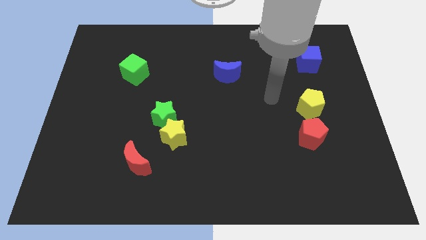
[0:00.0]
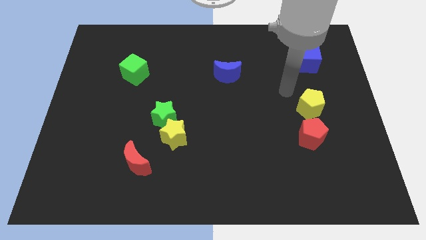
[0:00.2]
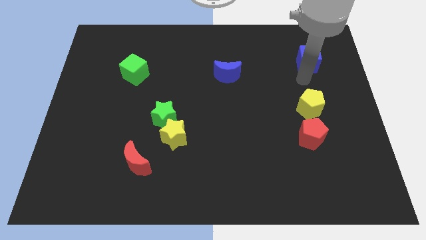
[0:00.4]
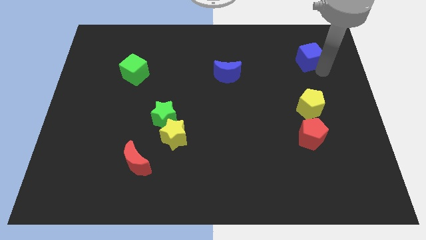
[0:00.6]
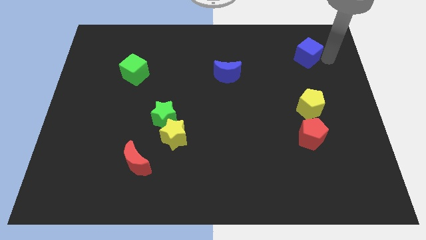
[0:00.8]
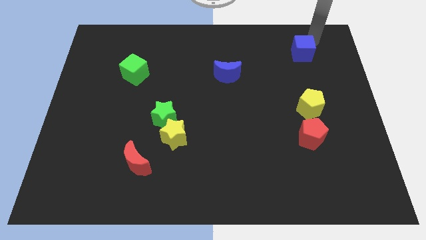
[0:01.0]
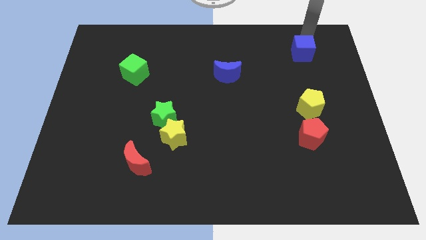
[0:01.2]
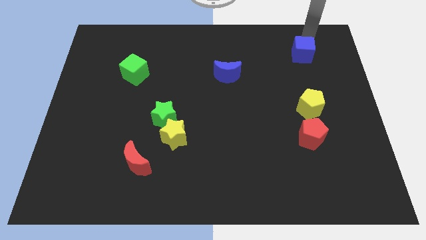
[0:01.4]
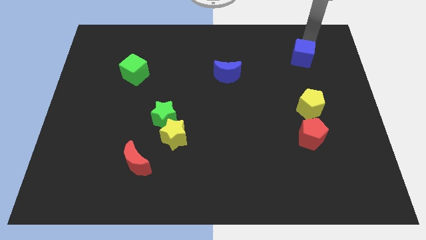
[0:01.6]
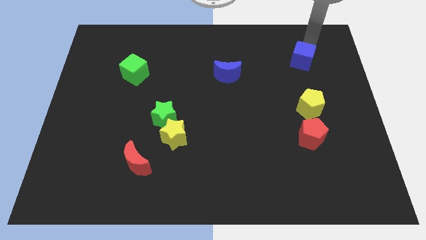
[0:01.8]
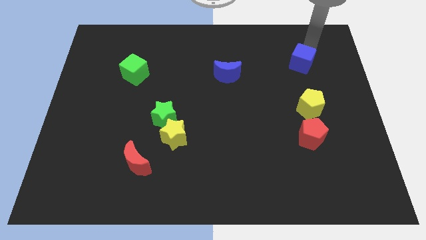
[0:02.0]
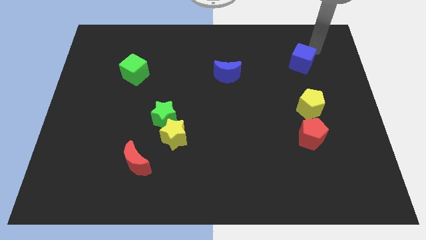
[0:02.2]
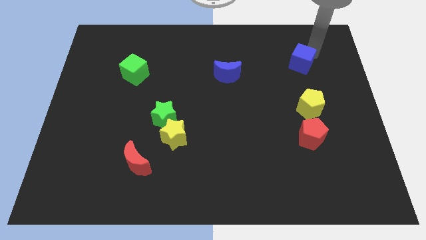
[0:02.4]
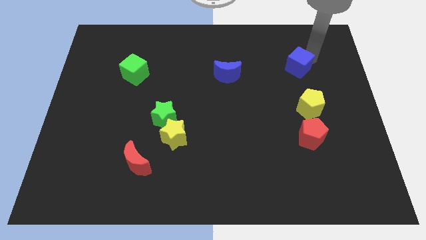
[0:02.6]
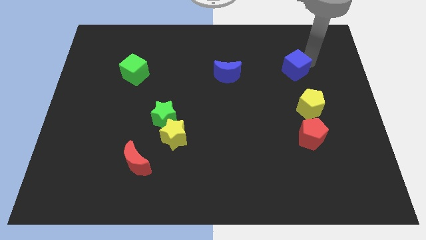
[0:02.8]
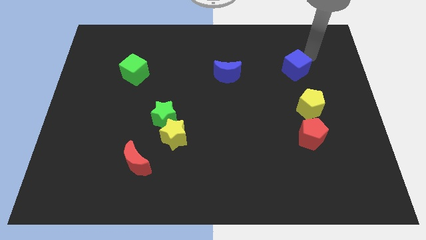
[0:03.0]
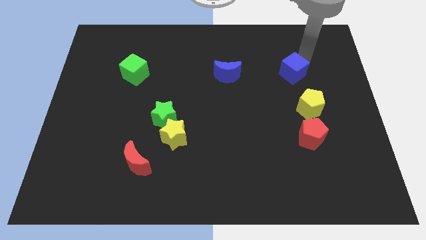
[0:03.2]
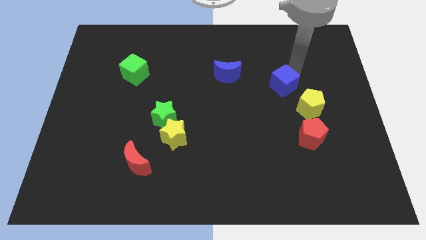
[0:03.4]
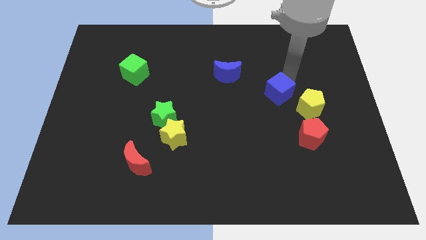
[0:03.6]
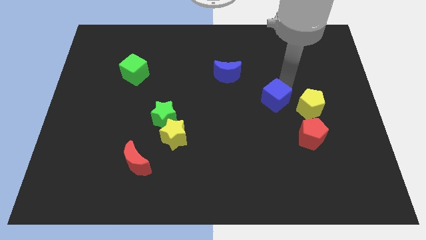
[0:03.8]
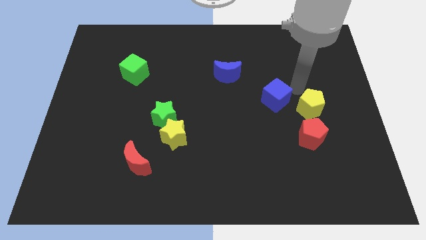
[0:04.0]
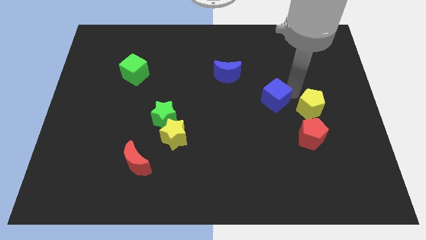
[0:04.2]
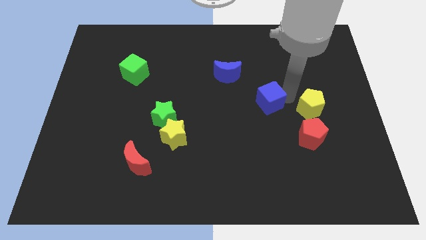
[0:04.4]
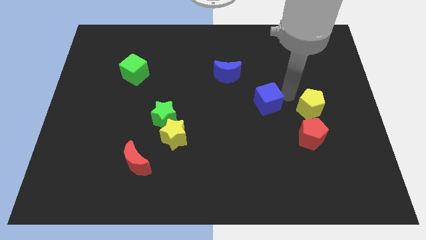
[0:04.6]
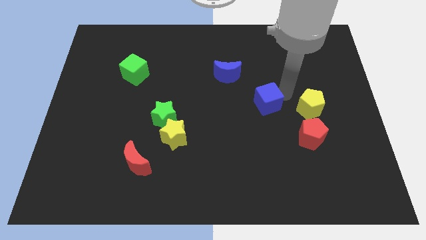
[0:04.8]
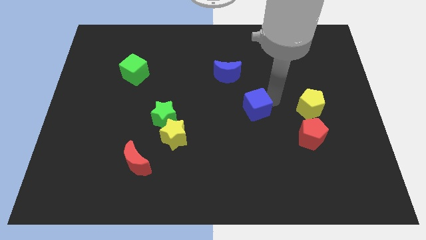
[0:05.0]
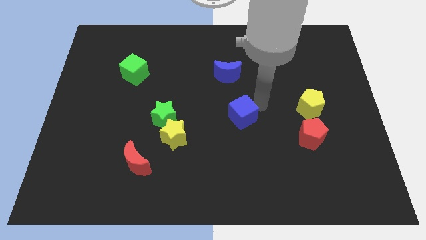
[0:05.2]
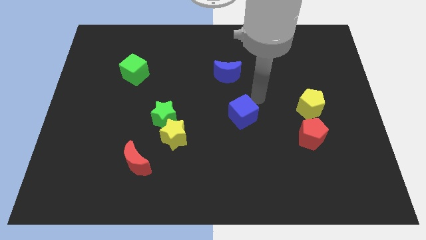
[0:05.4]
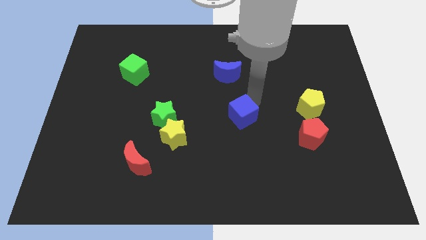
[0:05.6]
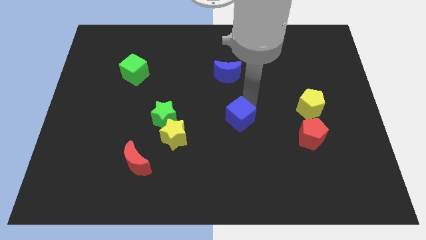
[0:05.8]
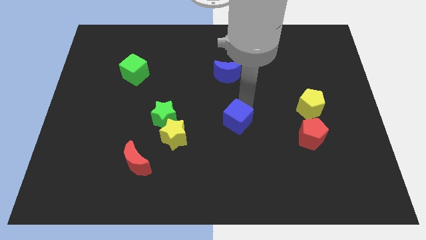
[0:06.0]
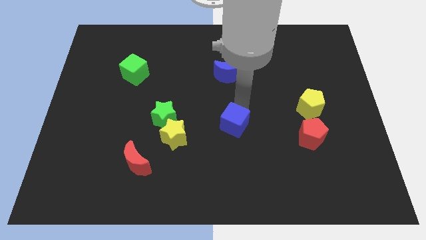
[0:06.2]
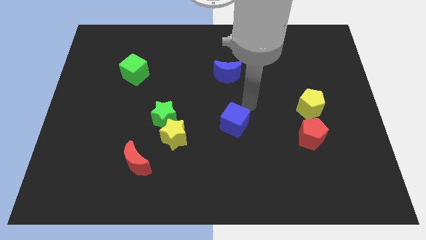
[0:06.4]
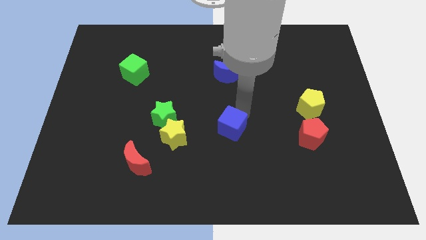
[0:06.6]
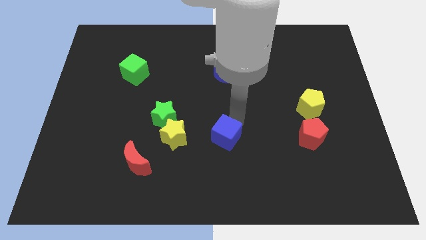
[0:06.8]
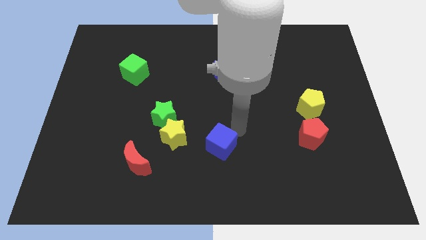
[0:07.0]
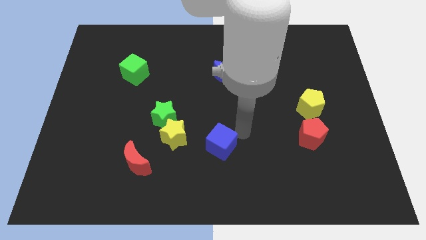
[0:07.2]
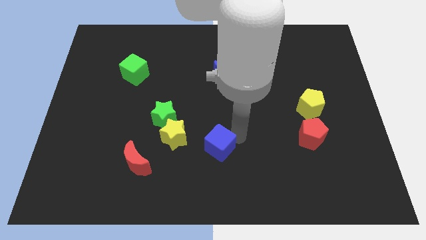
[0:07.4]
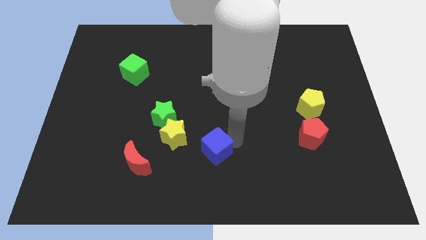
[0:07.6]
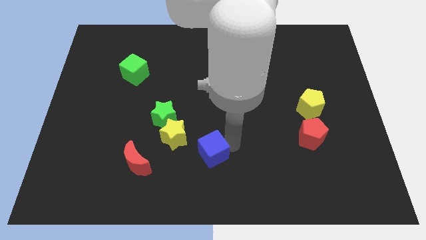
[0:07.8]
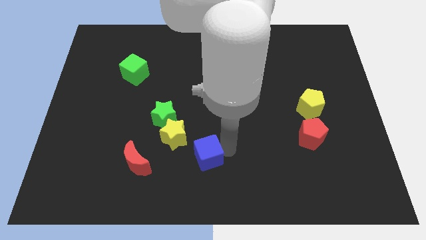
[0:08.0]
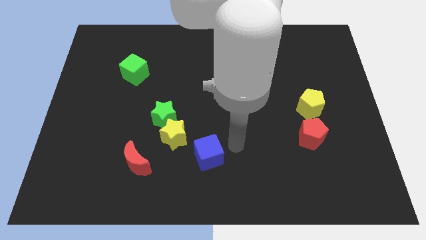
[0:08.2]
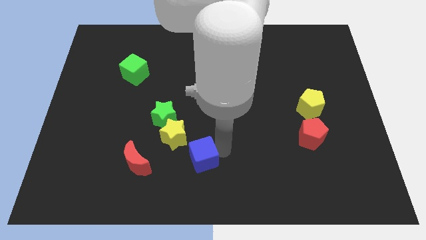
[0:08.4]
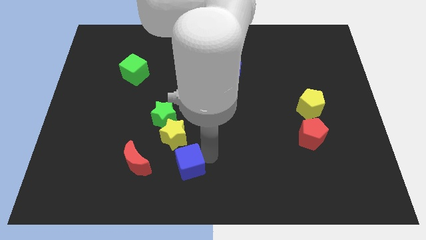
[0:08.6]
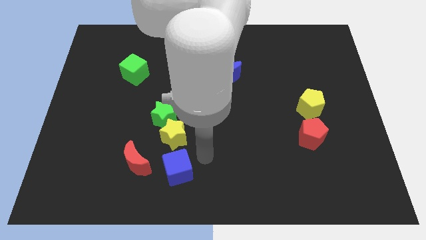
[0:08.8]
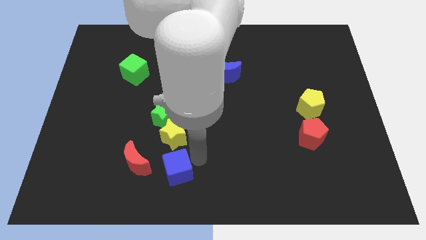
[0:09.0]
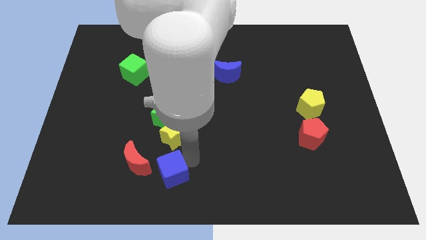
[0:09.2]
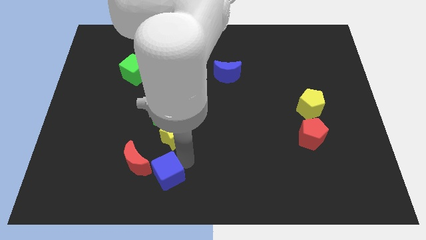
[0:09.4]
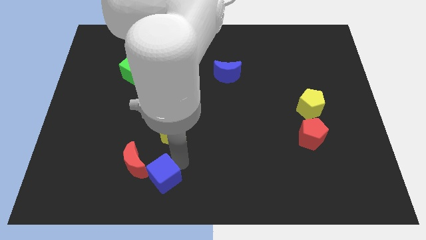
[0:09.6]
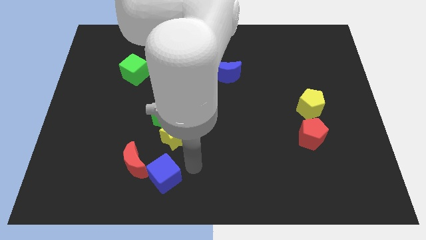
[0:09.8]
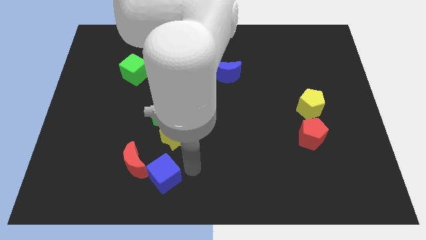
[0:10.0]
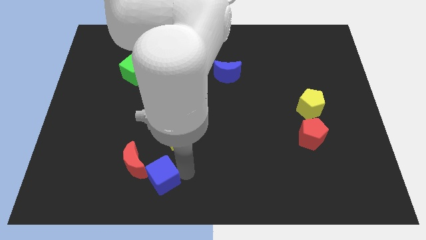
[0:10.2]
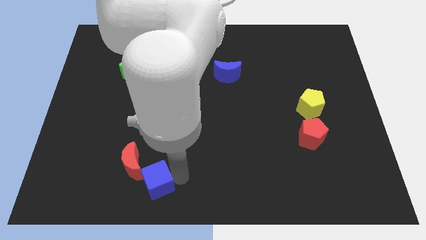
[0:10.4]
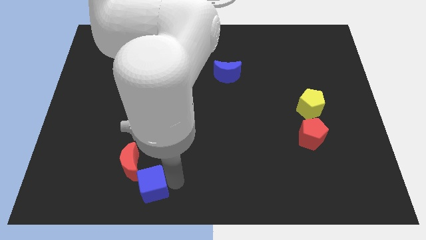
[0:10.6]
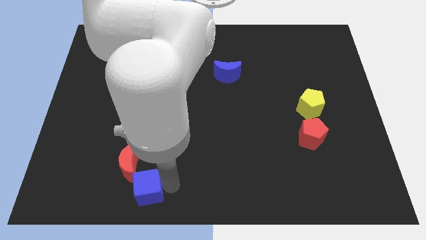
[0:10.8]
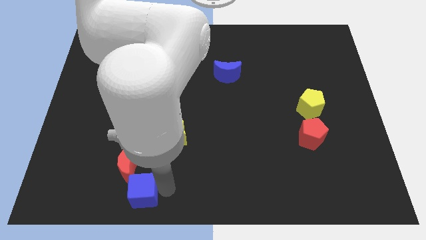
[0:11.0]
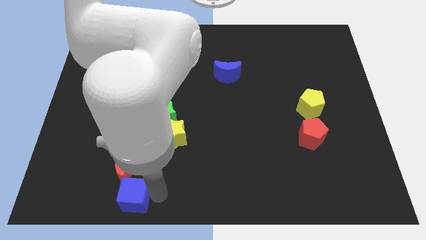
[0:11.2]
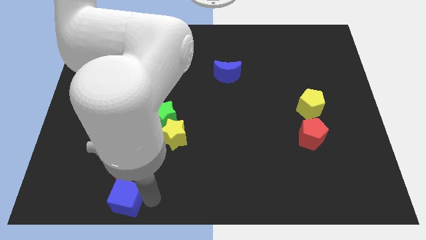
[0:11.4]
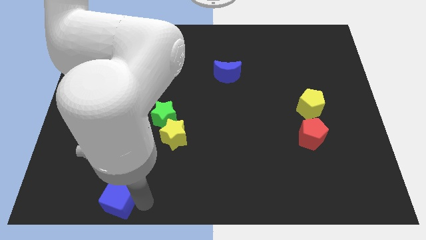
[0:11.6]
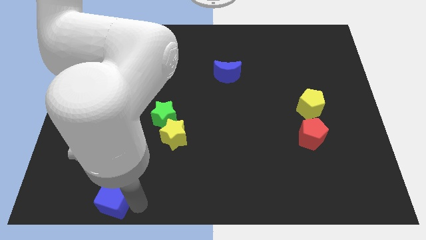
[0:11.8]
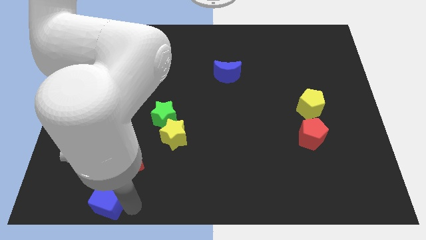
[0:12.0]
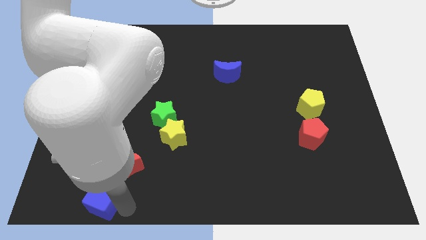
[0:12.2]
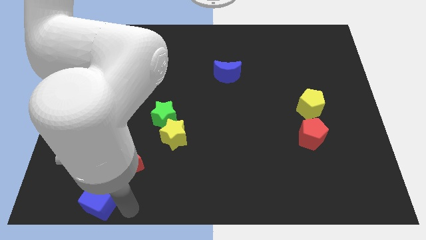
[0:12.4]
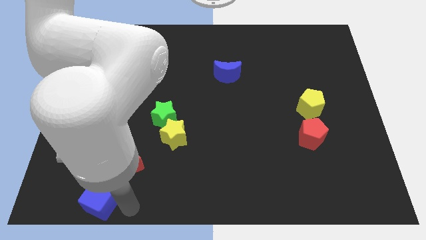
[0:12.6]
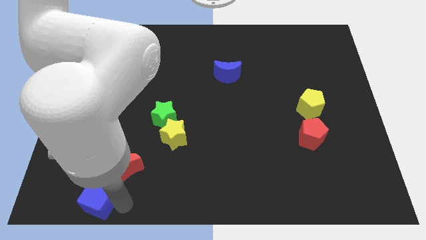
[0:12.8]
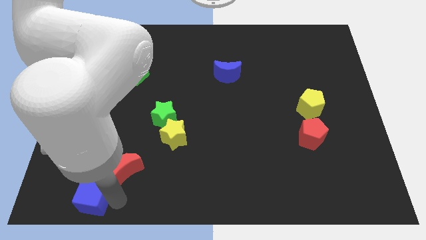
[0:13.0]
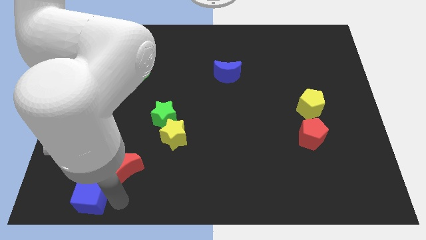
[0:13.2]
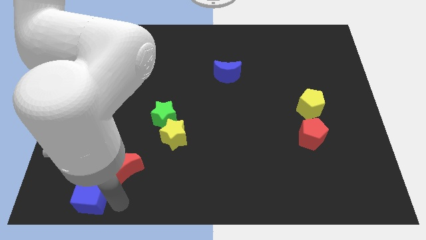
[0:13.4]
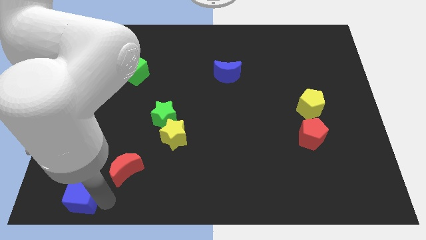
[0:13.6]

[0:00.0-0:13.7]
push the blue cube to the bottom left of the board
